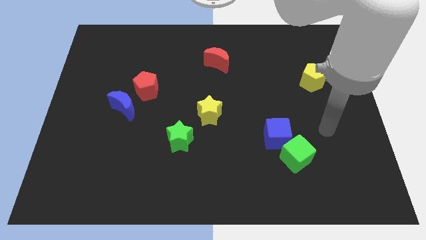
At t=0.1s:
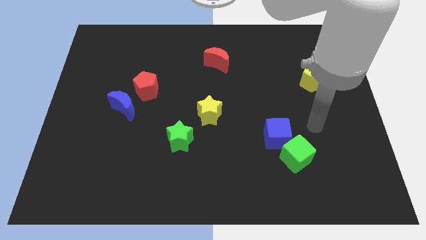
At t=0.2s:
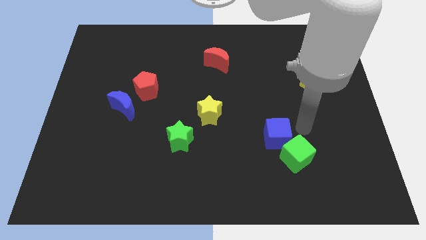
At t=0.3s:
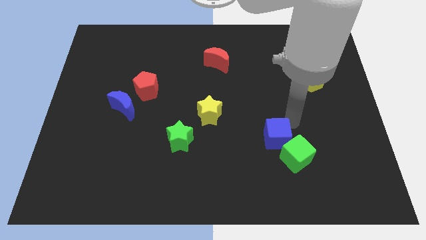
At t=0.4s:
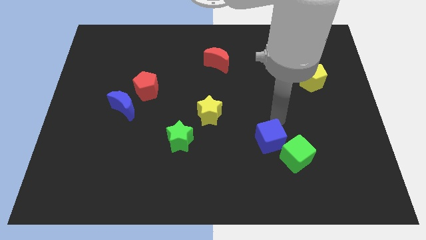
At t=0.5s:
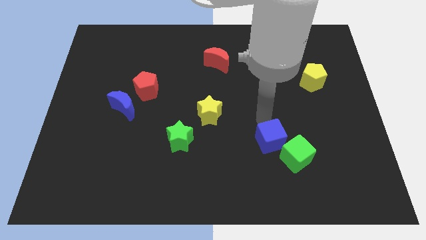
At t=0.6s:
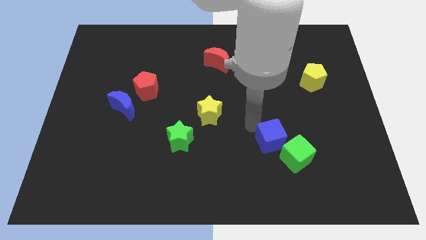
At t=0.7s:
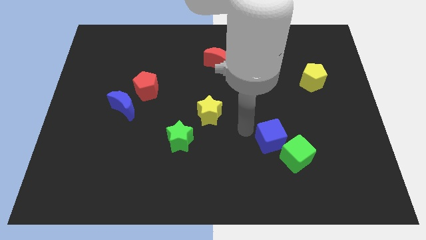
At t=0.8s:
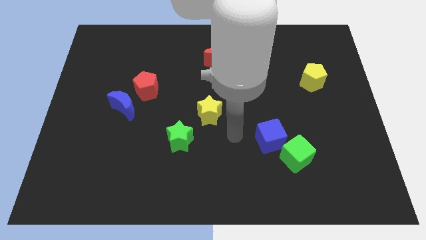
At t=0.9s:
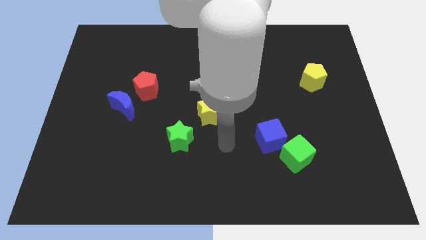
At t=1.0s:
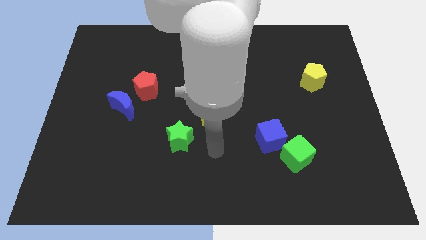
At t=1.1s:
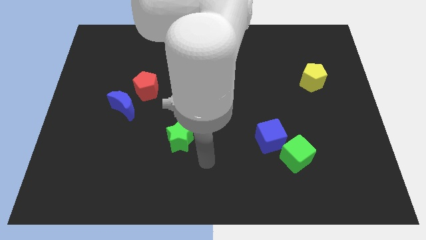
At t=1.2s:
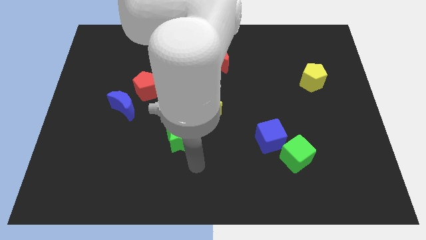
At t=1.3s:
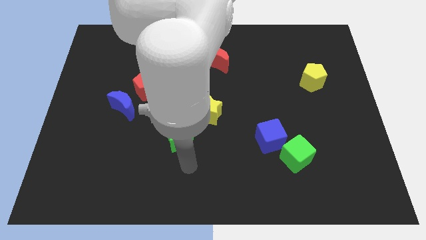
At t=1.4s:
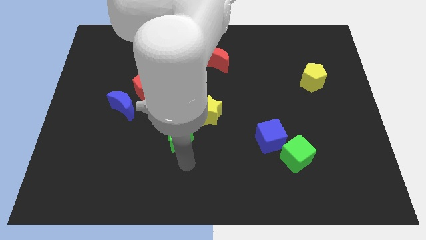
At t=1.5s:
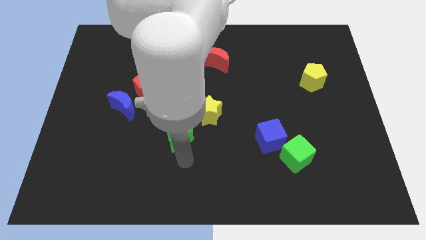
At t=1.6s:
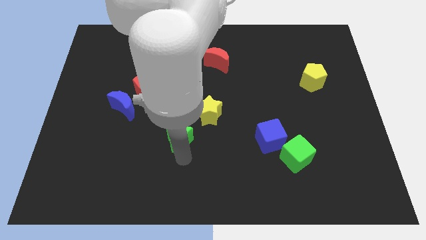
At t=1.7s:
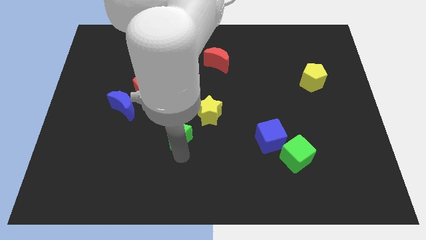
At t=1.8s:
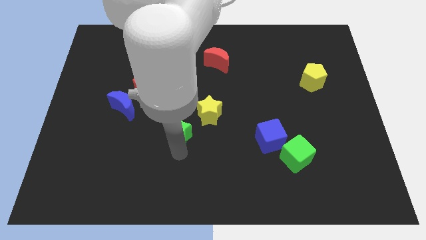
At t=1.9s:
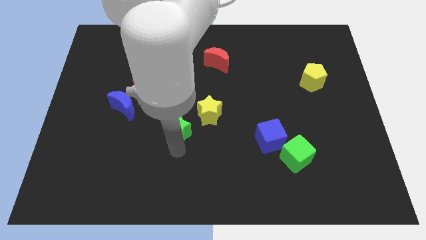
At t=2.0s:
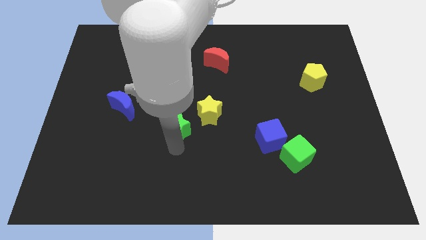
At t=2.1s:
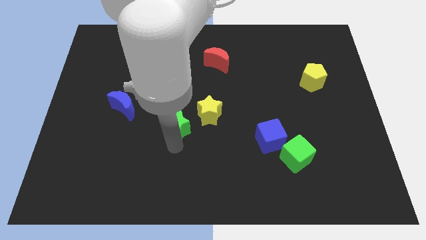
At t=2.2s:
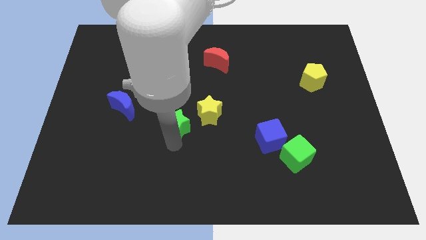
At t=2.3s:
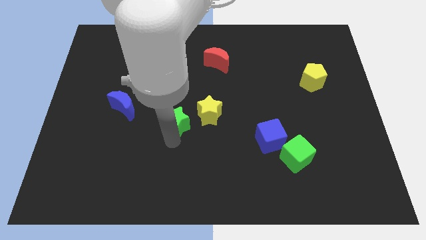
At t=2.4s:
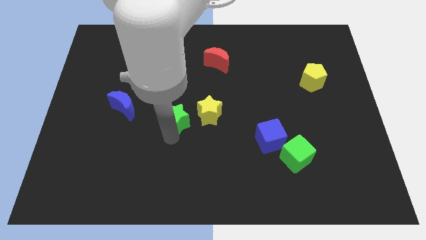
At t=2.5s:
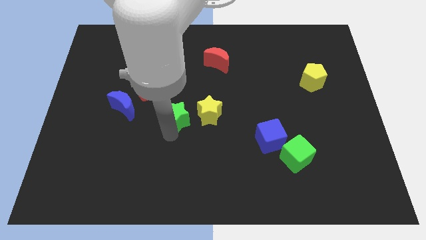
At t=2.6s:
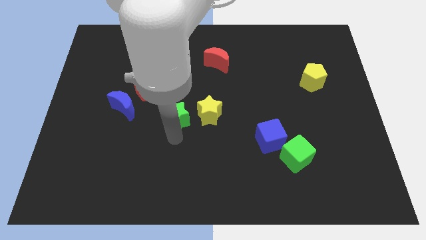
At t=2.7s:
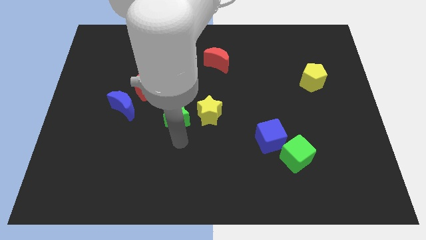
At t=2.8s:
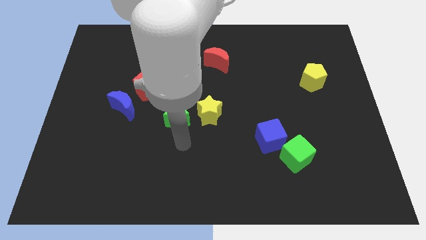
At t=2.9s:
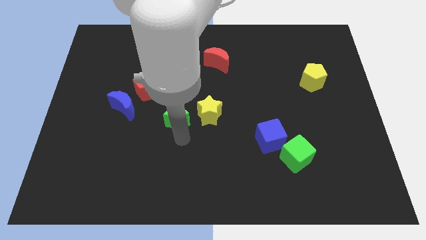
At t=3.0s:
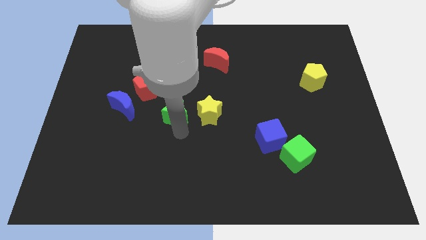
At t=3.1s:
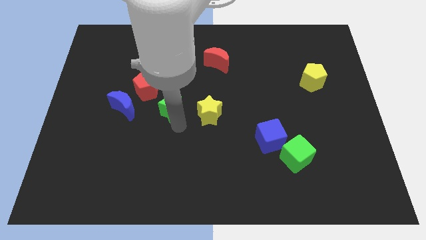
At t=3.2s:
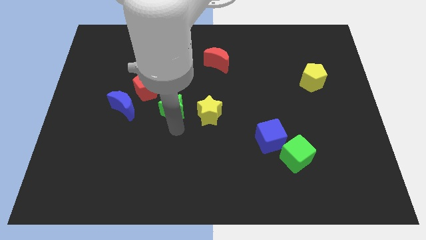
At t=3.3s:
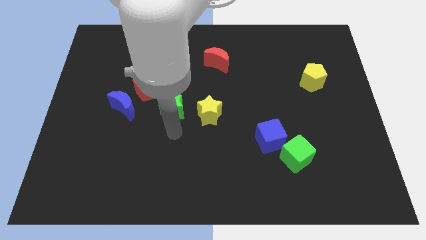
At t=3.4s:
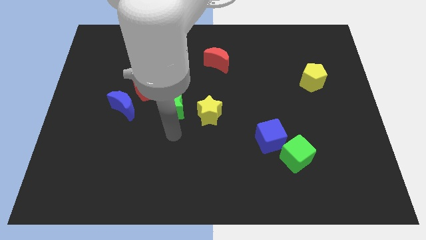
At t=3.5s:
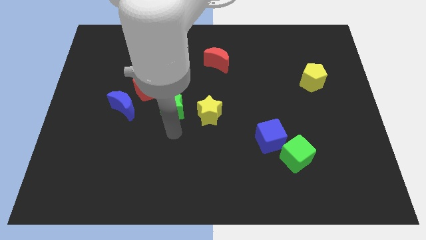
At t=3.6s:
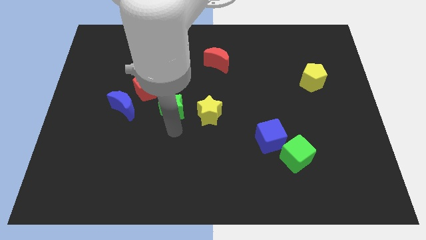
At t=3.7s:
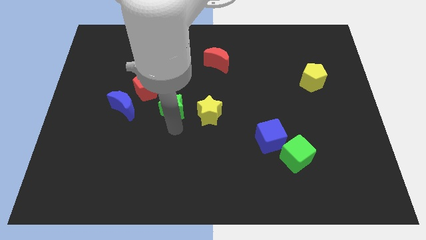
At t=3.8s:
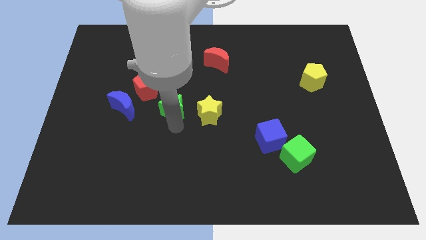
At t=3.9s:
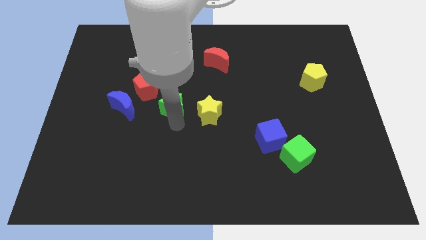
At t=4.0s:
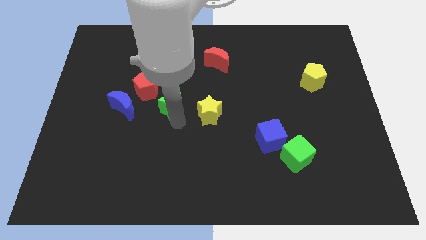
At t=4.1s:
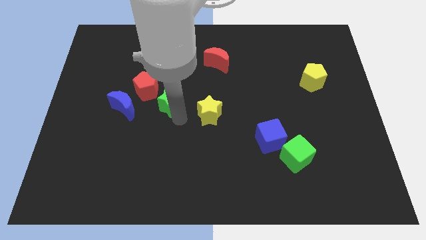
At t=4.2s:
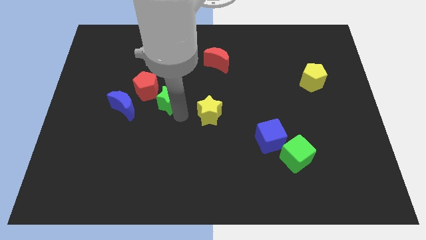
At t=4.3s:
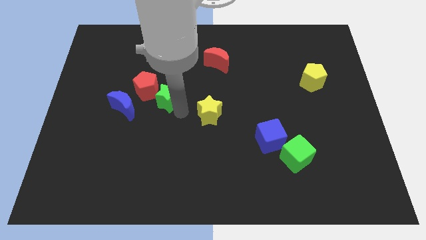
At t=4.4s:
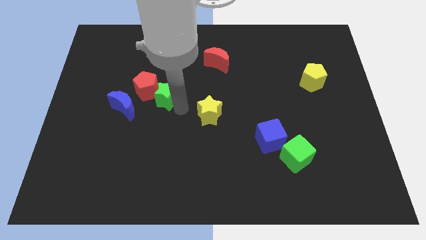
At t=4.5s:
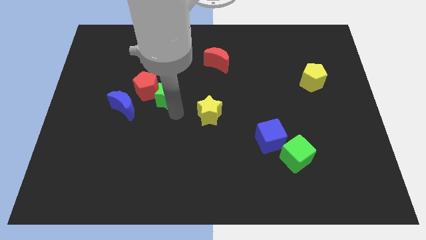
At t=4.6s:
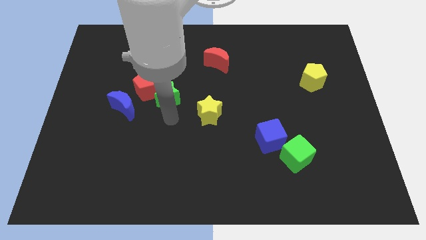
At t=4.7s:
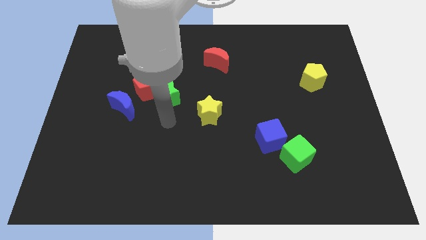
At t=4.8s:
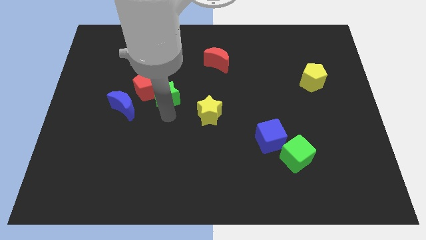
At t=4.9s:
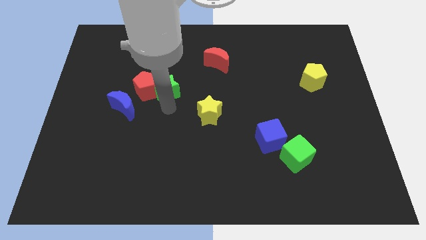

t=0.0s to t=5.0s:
put the green star to the top right of the red pentagon

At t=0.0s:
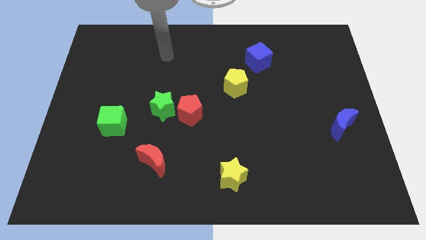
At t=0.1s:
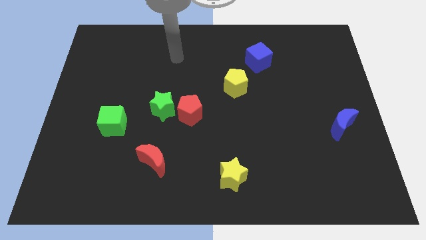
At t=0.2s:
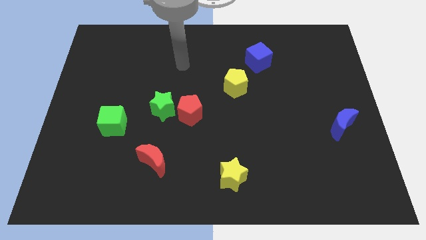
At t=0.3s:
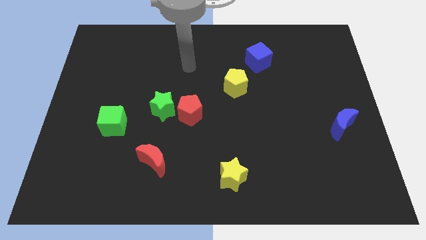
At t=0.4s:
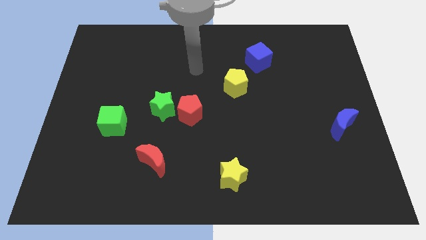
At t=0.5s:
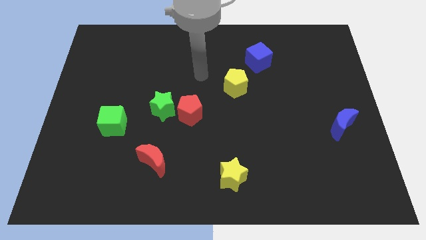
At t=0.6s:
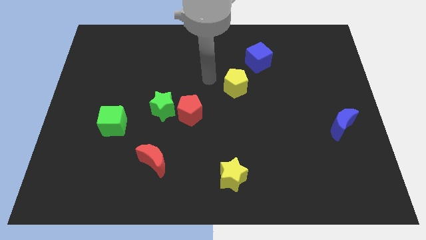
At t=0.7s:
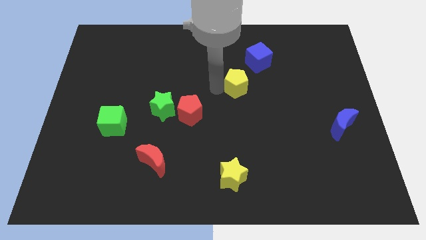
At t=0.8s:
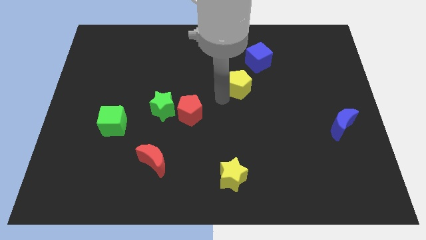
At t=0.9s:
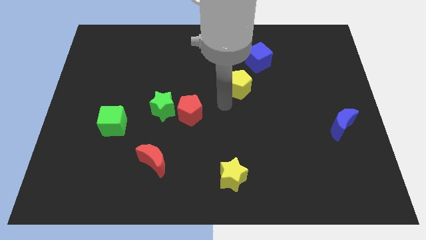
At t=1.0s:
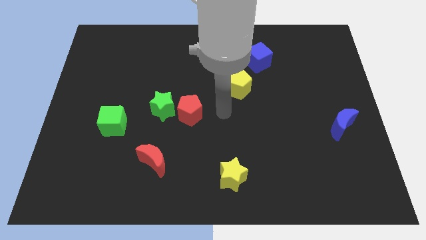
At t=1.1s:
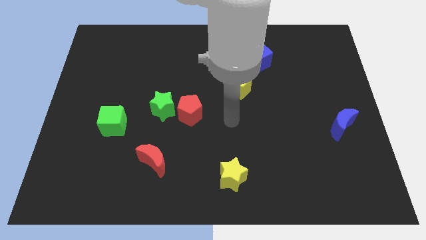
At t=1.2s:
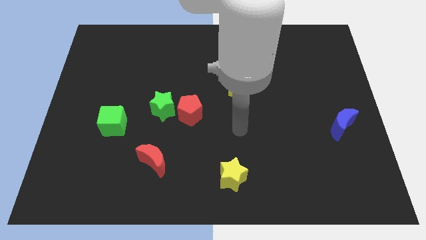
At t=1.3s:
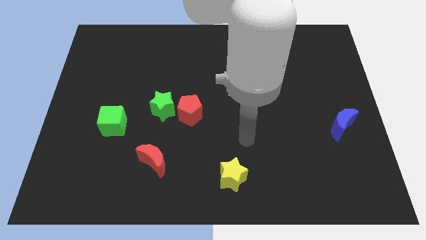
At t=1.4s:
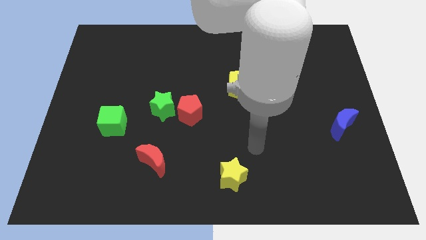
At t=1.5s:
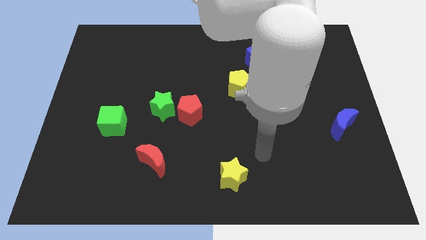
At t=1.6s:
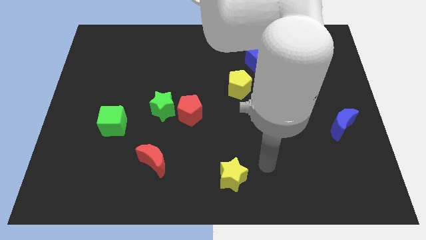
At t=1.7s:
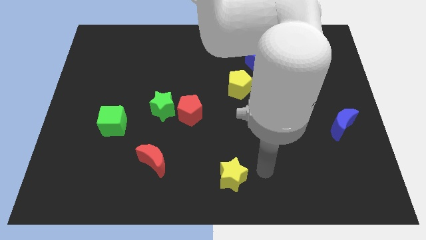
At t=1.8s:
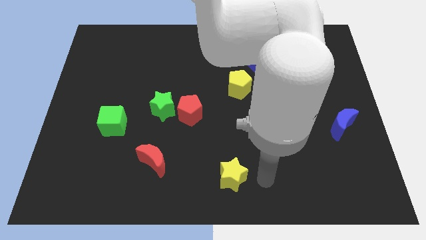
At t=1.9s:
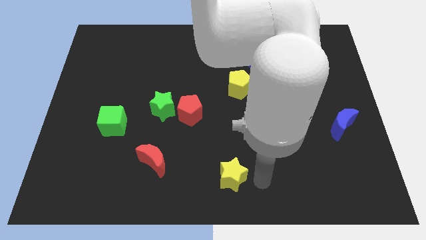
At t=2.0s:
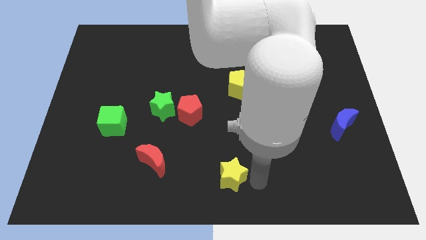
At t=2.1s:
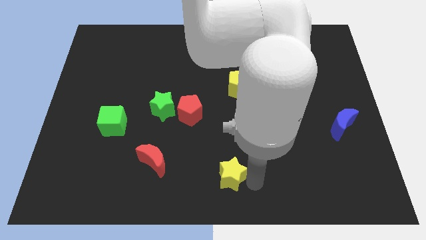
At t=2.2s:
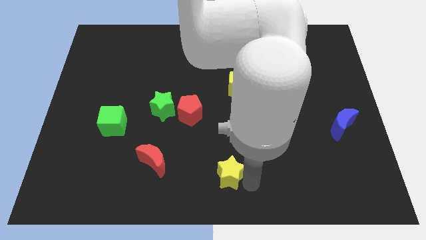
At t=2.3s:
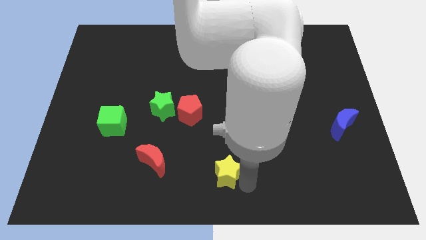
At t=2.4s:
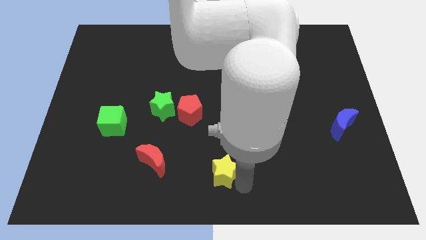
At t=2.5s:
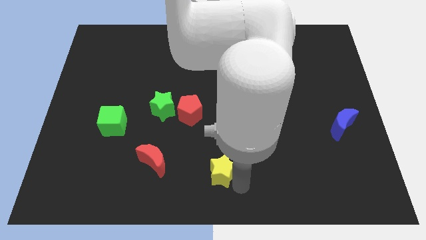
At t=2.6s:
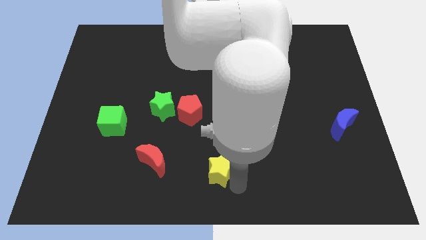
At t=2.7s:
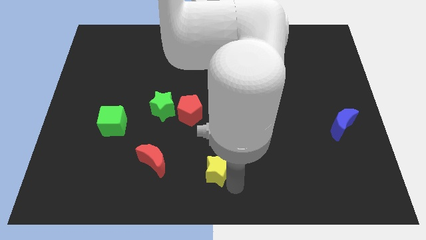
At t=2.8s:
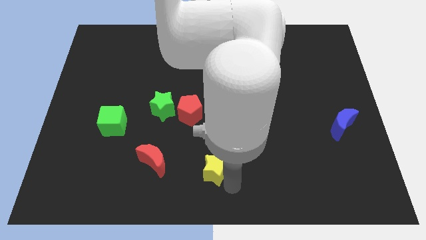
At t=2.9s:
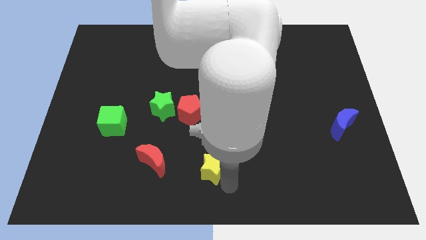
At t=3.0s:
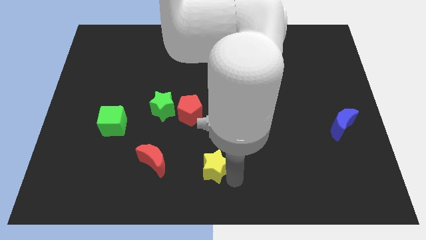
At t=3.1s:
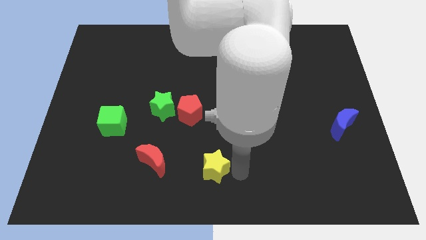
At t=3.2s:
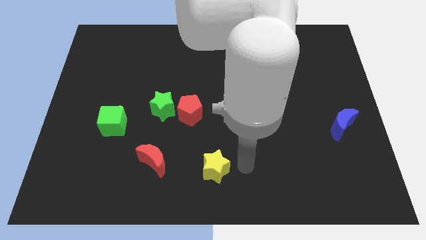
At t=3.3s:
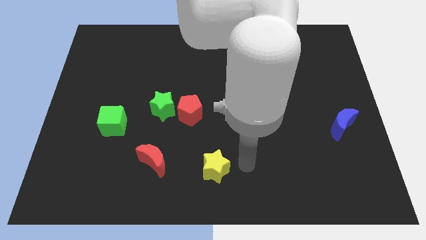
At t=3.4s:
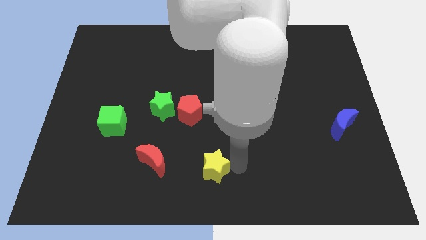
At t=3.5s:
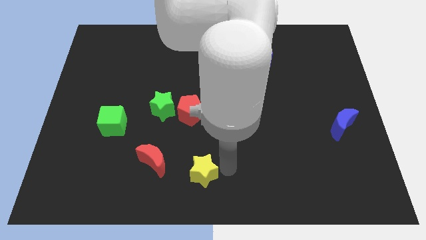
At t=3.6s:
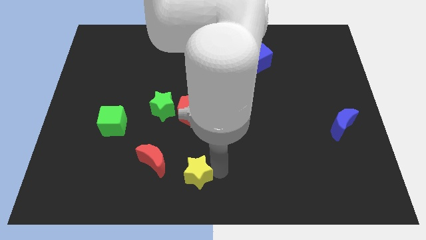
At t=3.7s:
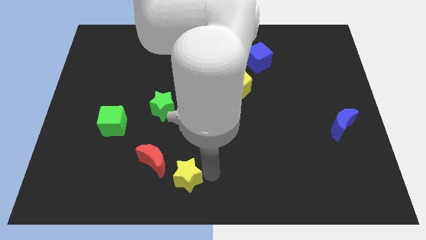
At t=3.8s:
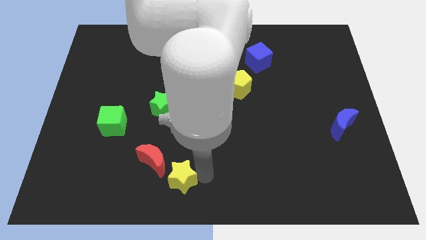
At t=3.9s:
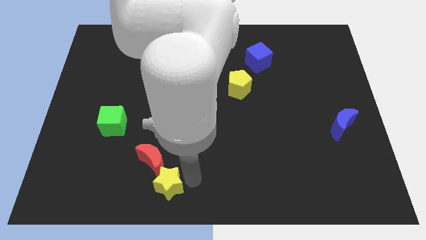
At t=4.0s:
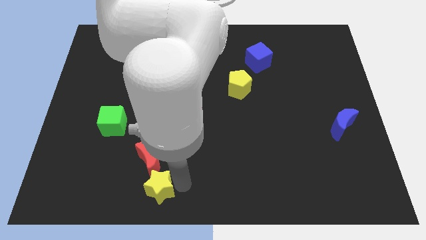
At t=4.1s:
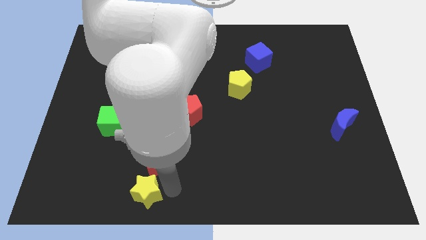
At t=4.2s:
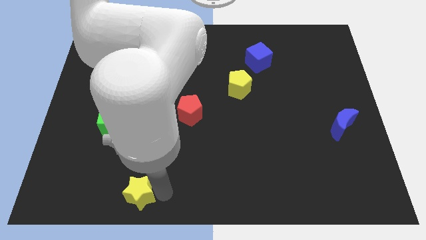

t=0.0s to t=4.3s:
push the yellow star to the bottom left of the red moon
